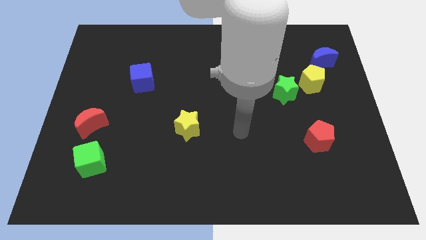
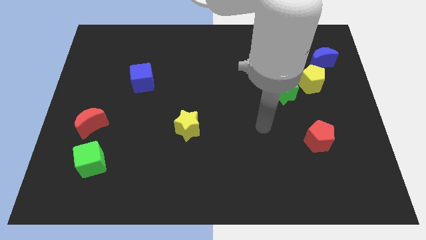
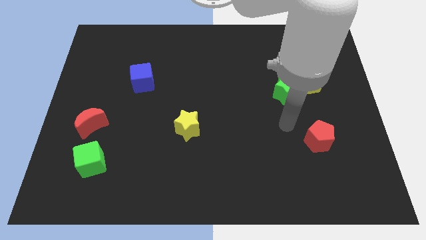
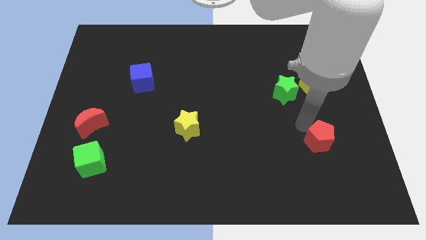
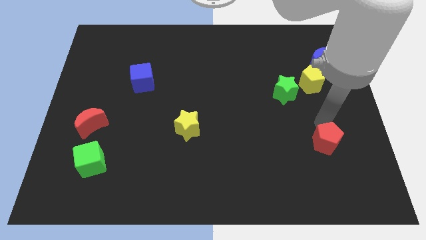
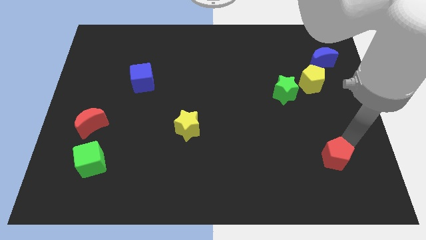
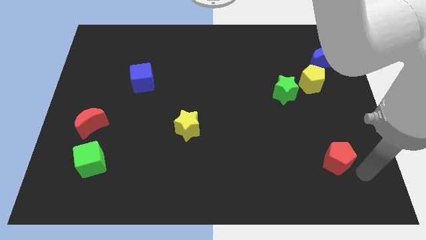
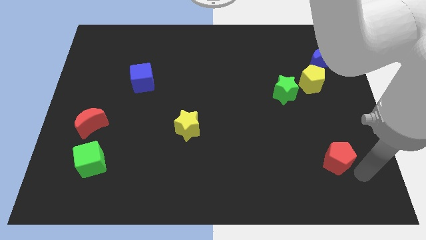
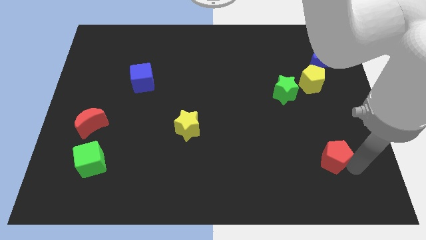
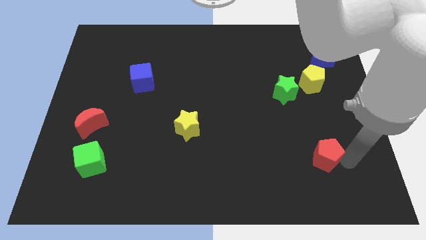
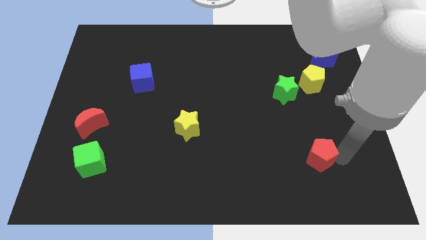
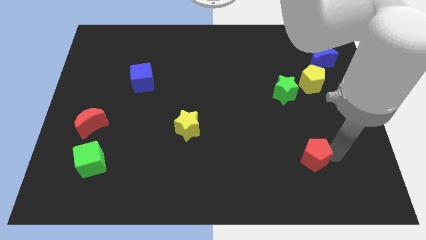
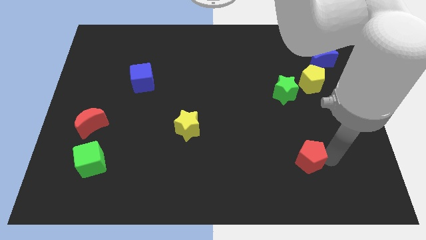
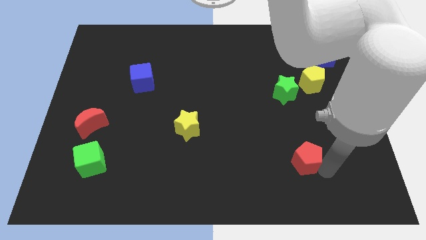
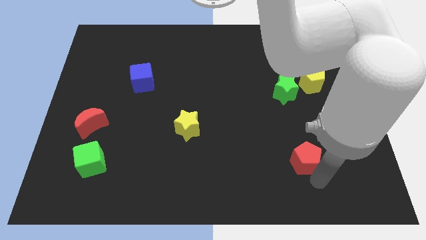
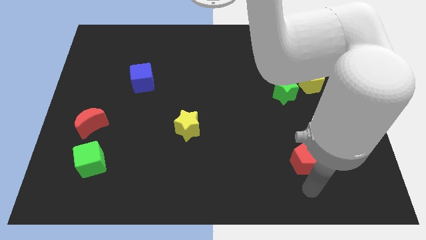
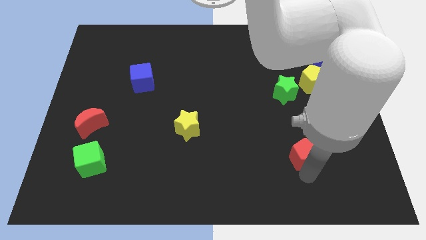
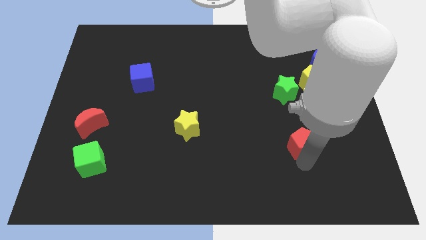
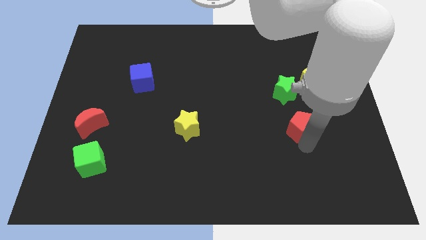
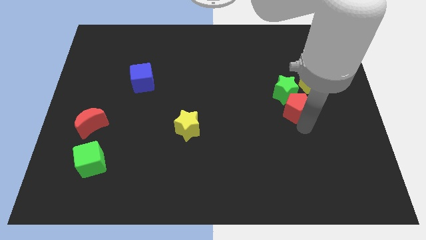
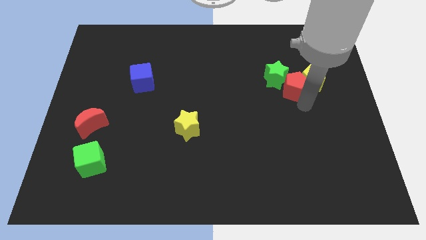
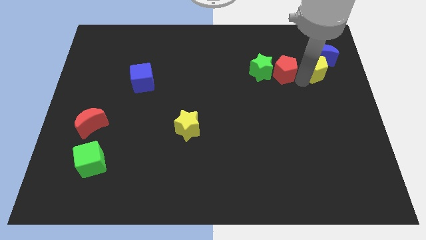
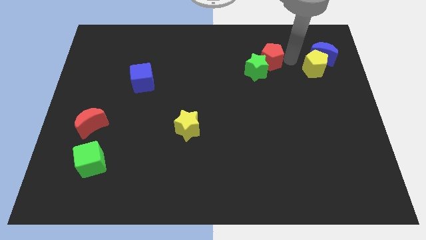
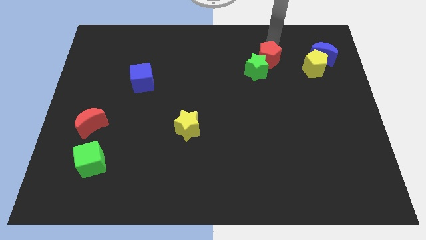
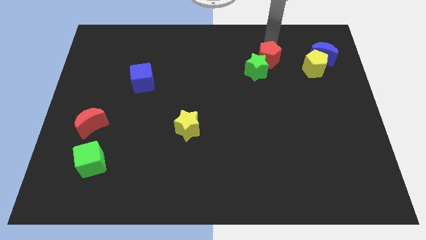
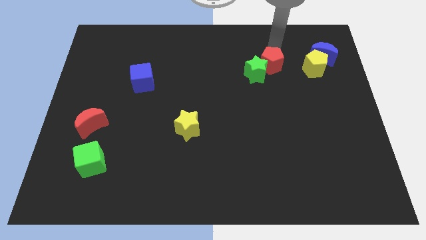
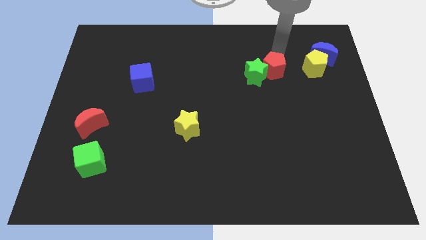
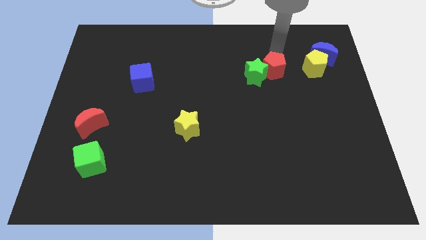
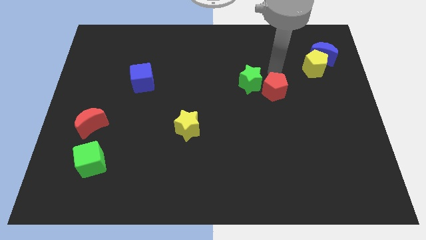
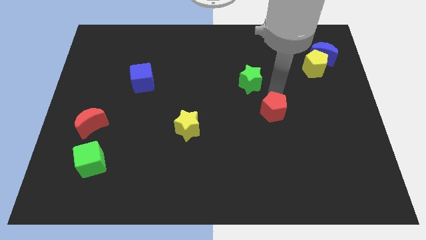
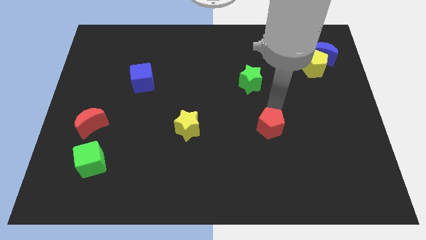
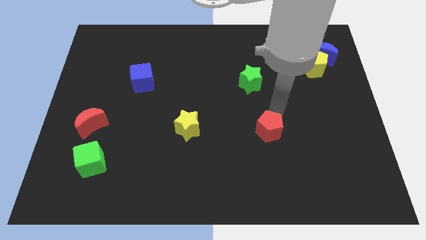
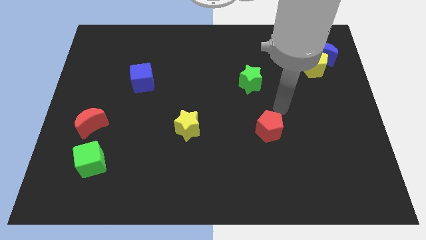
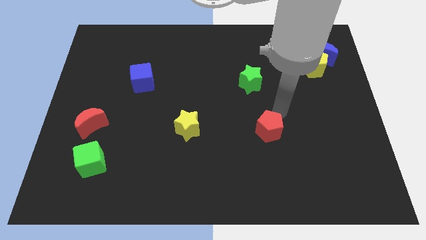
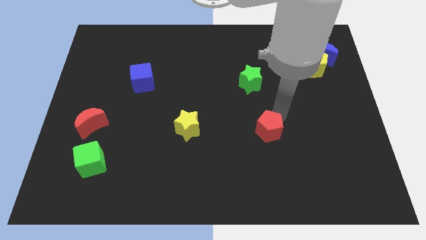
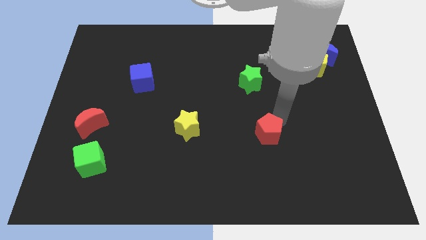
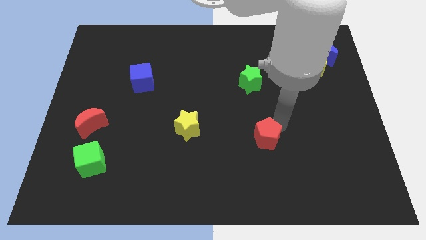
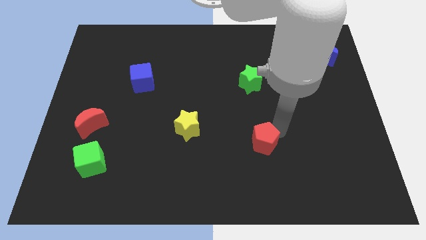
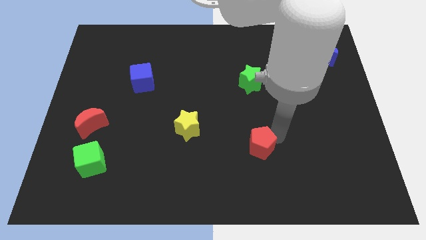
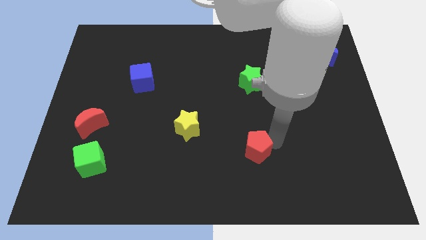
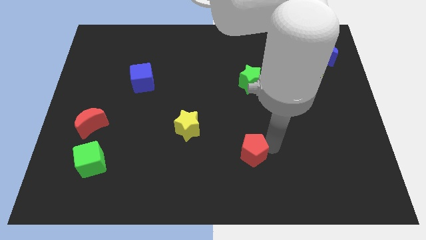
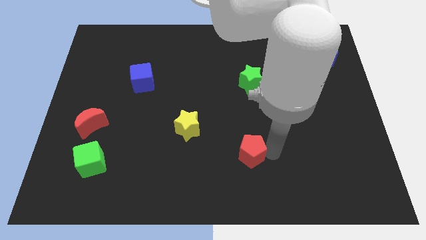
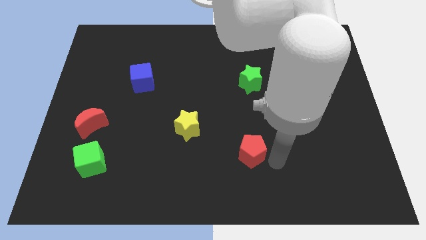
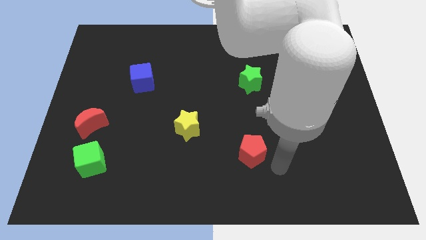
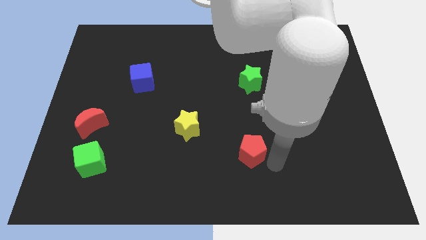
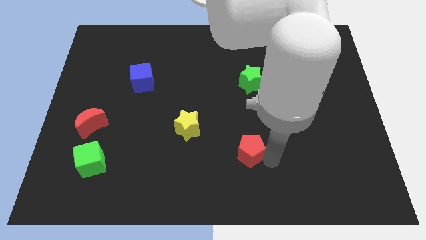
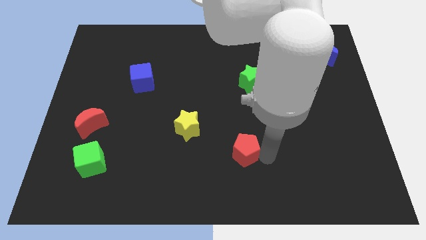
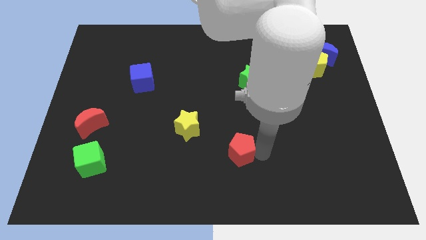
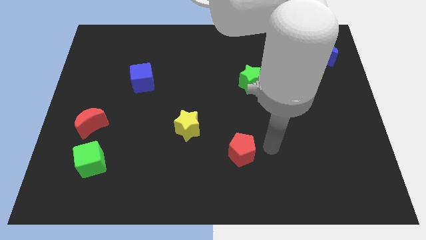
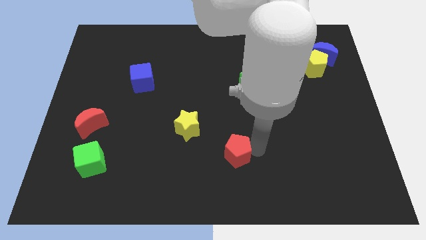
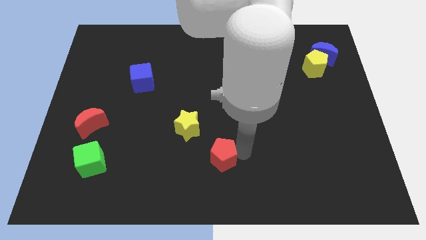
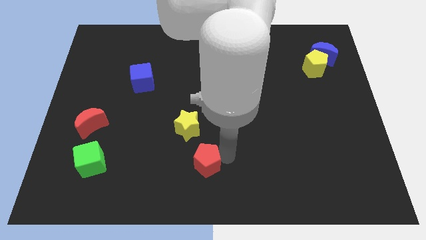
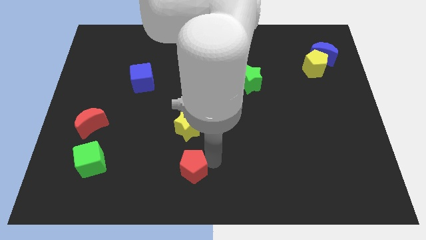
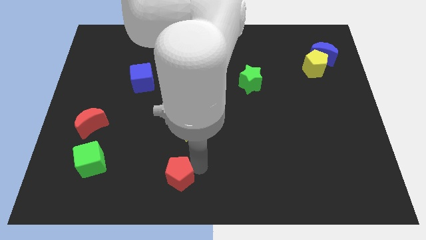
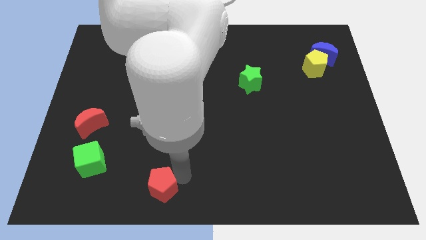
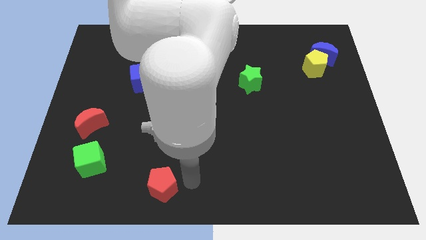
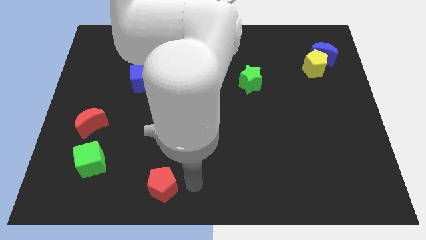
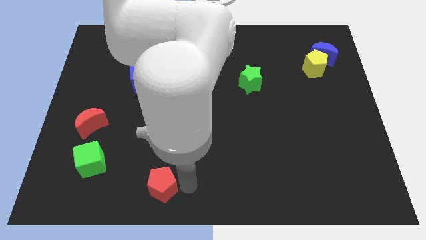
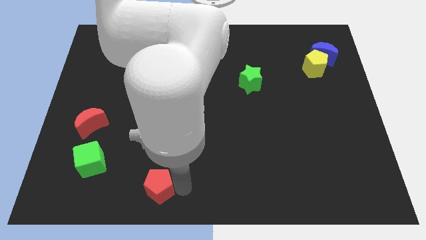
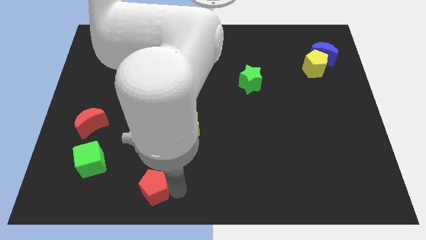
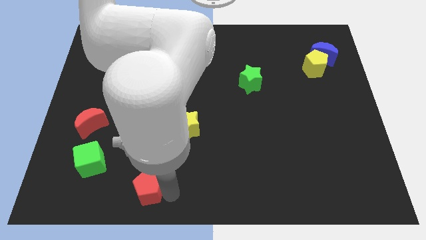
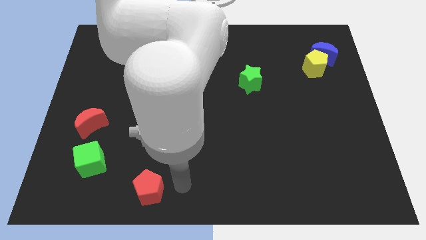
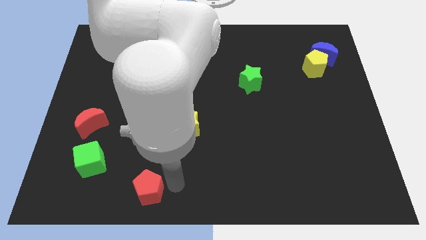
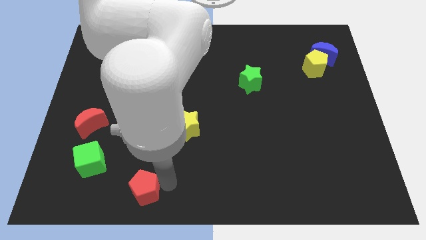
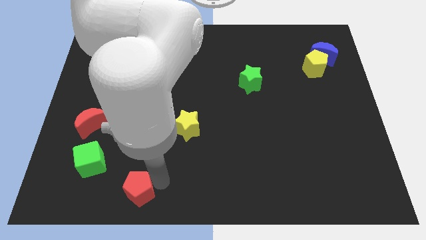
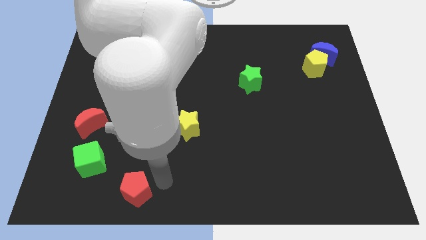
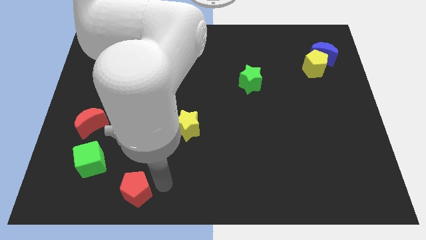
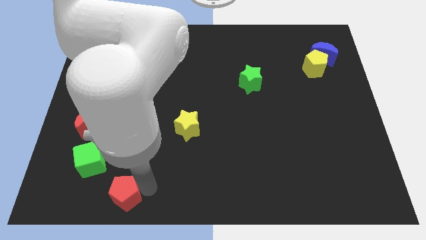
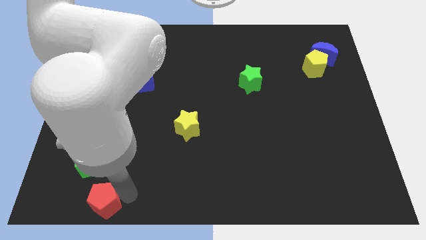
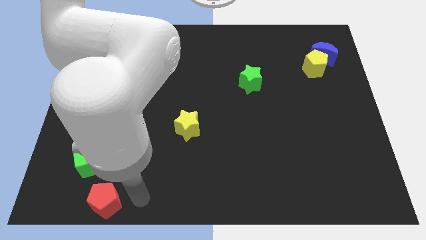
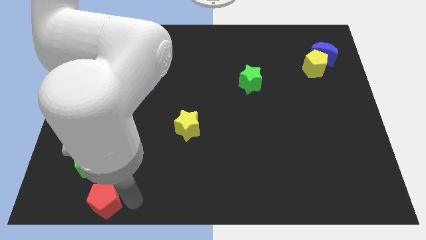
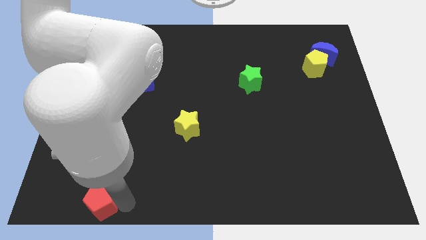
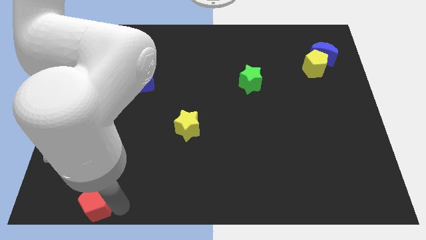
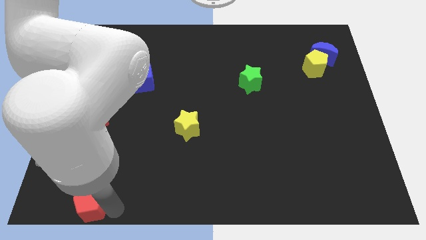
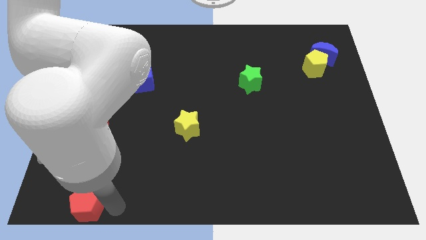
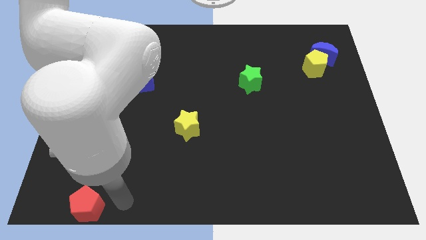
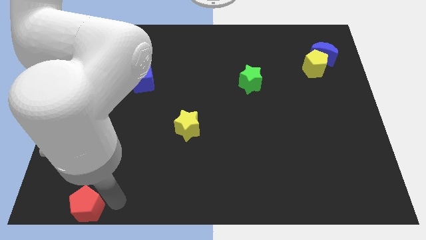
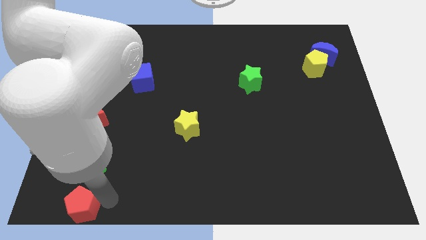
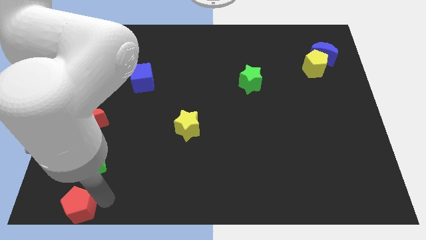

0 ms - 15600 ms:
push the red pentagon to the bottom left of the board
